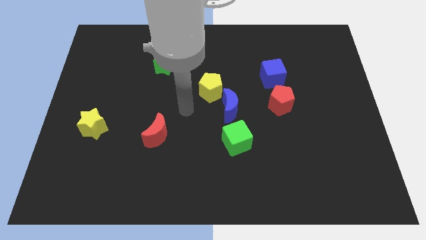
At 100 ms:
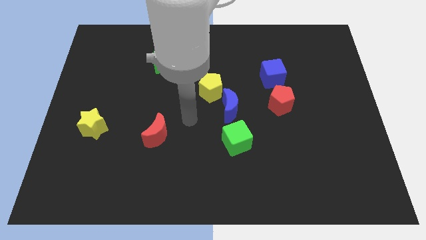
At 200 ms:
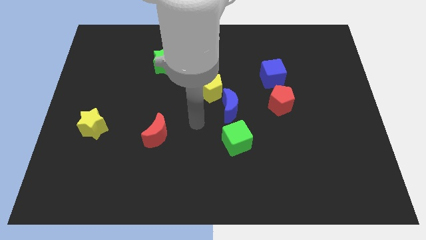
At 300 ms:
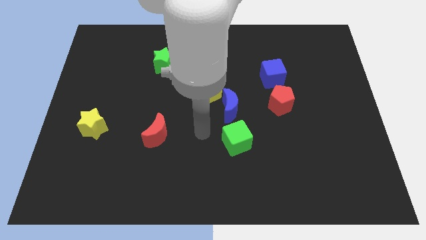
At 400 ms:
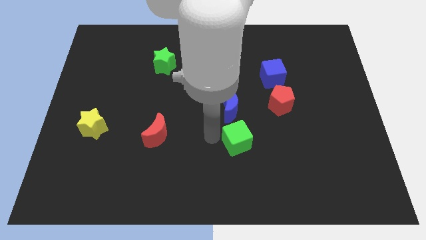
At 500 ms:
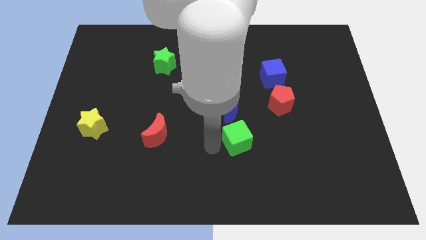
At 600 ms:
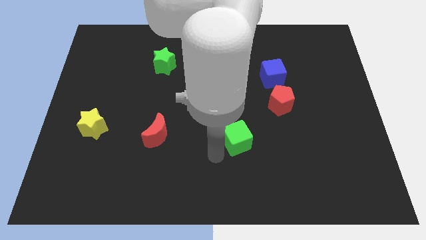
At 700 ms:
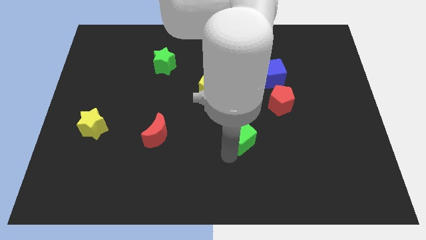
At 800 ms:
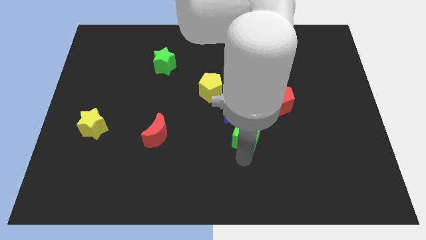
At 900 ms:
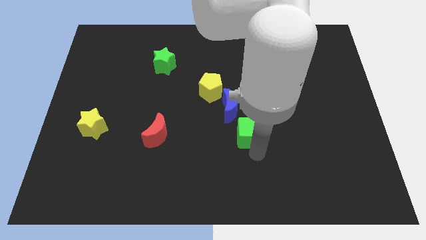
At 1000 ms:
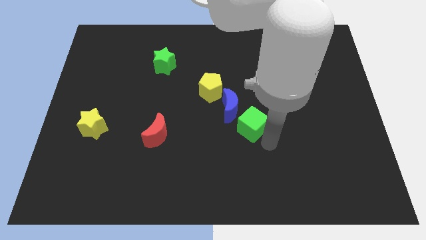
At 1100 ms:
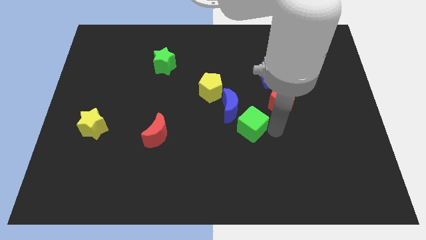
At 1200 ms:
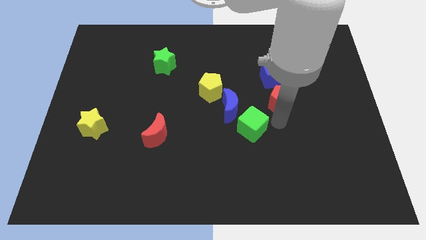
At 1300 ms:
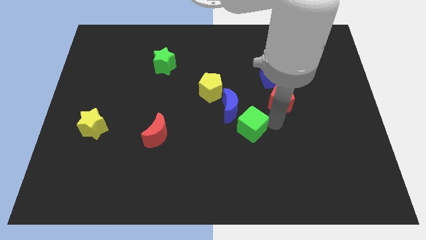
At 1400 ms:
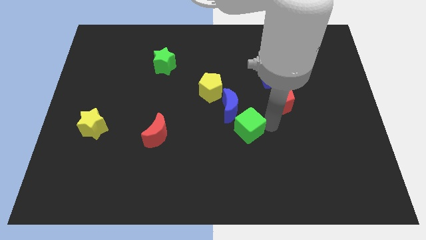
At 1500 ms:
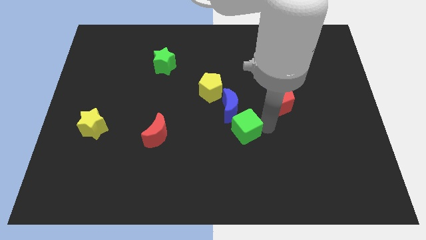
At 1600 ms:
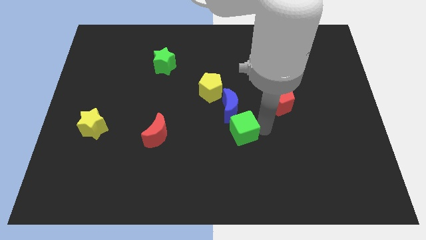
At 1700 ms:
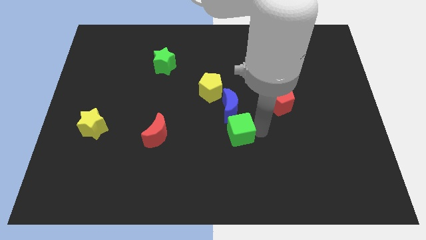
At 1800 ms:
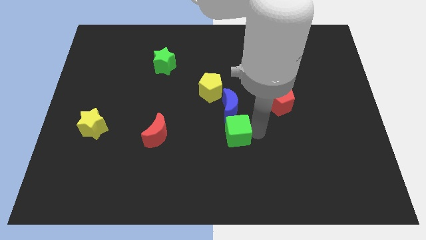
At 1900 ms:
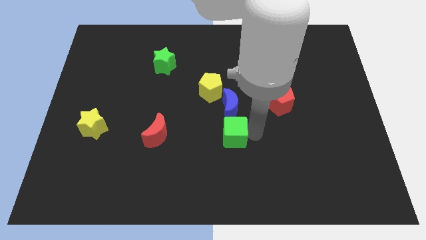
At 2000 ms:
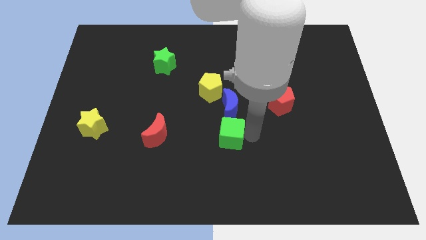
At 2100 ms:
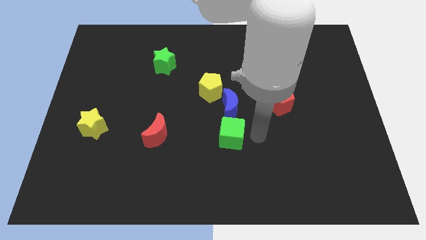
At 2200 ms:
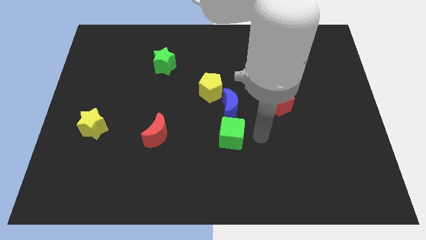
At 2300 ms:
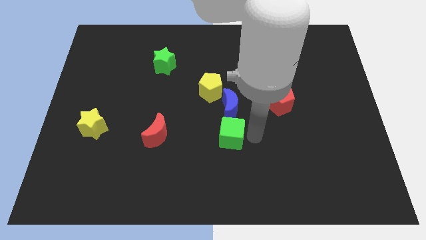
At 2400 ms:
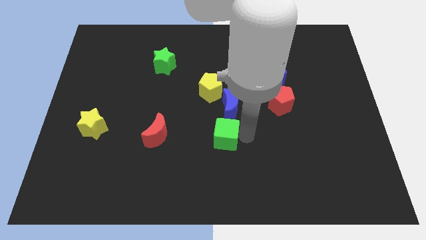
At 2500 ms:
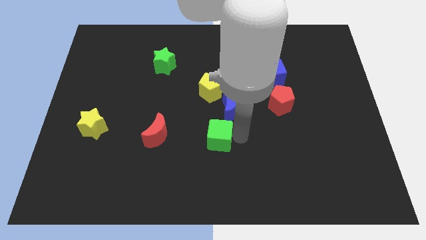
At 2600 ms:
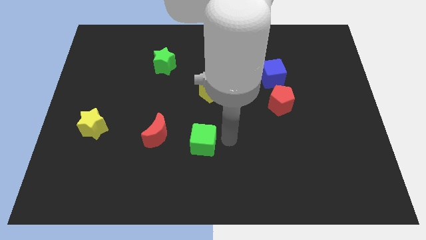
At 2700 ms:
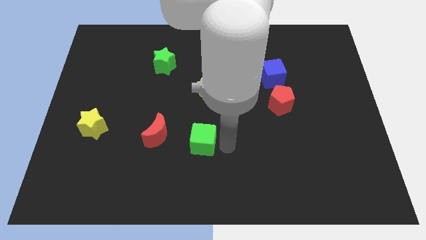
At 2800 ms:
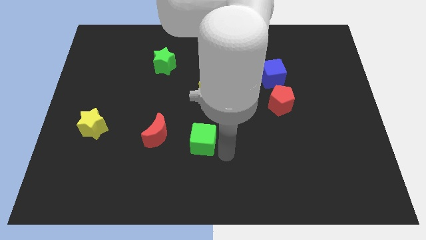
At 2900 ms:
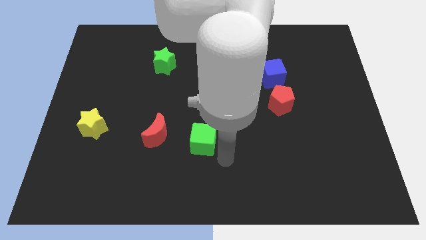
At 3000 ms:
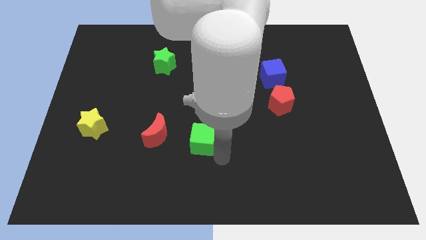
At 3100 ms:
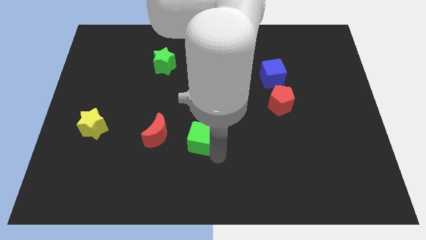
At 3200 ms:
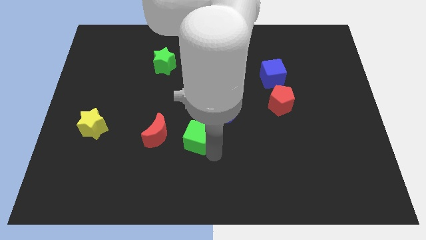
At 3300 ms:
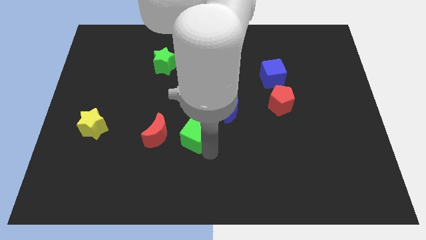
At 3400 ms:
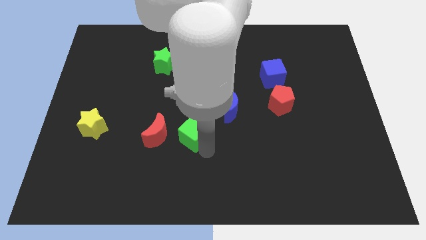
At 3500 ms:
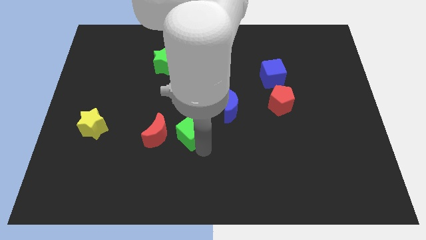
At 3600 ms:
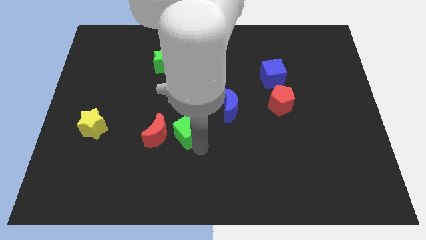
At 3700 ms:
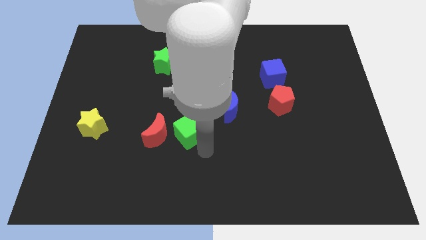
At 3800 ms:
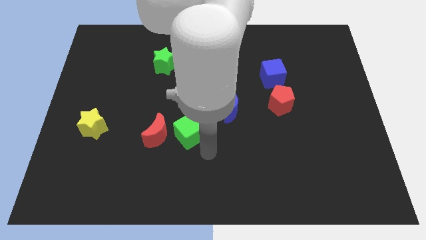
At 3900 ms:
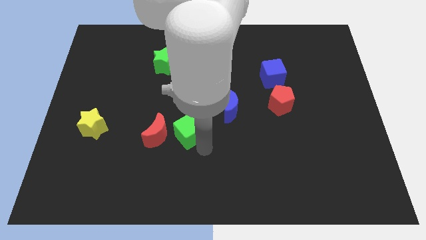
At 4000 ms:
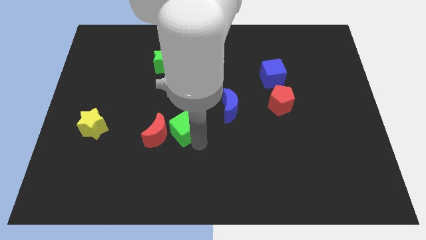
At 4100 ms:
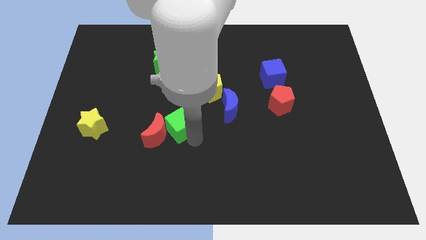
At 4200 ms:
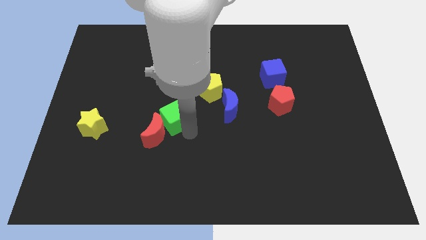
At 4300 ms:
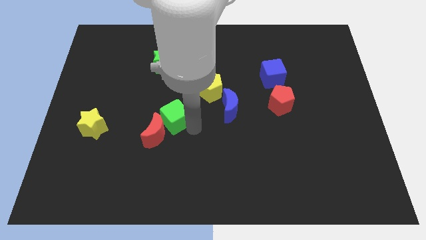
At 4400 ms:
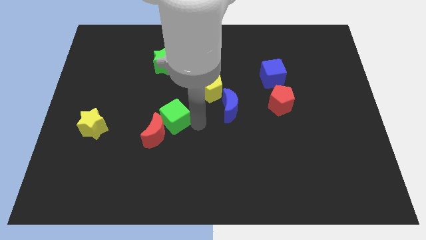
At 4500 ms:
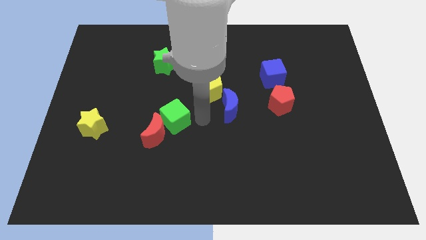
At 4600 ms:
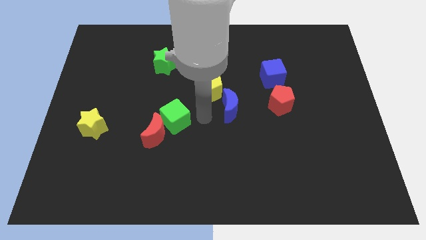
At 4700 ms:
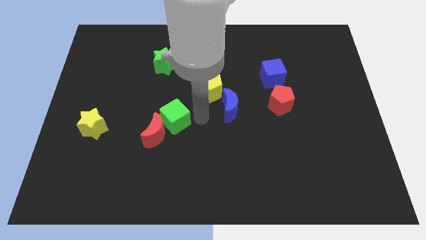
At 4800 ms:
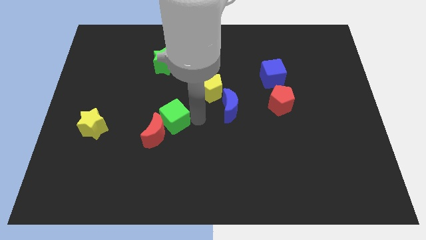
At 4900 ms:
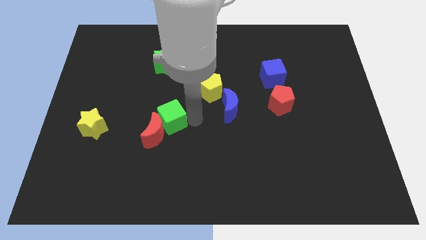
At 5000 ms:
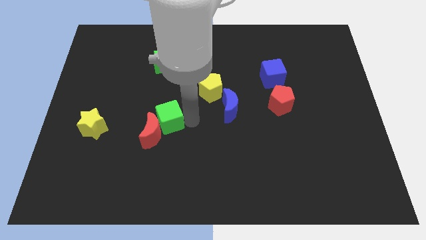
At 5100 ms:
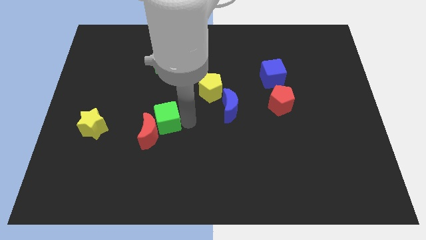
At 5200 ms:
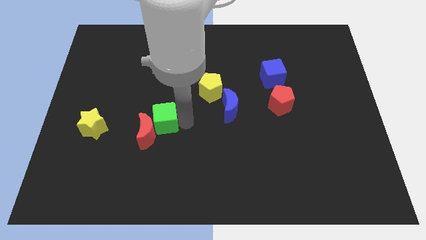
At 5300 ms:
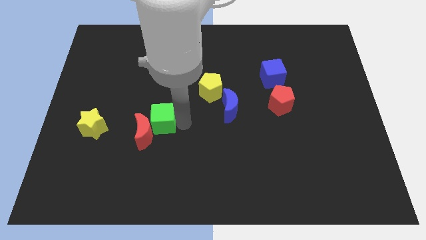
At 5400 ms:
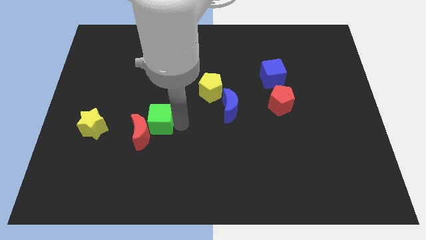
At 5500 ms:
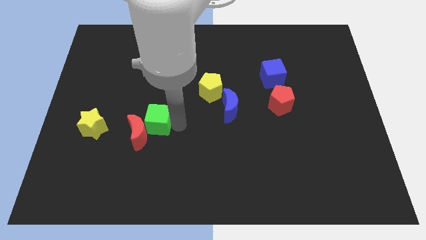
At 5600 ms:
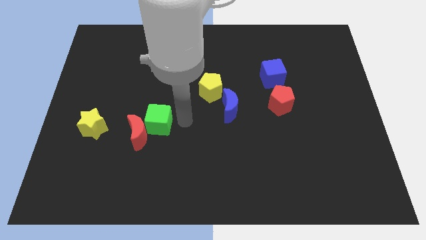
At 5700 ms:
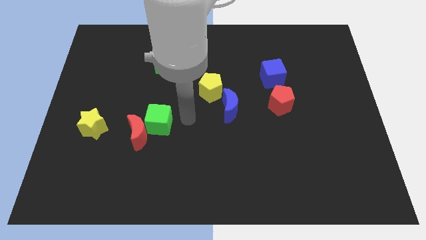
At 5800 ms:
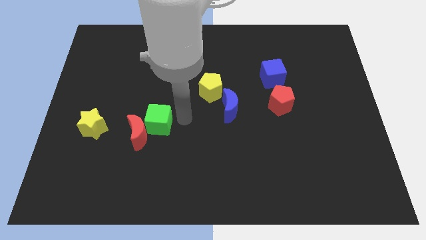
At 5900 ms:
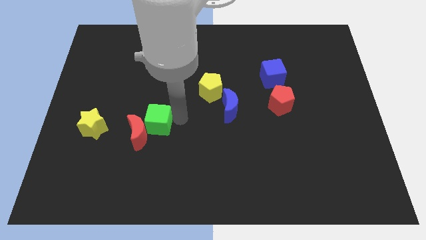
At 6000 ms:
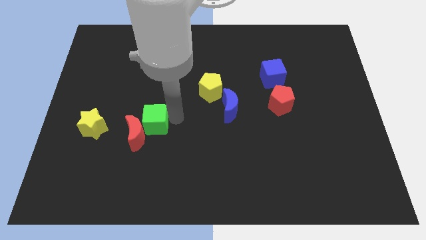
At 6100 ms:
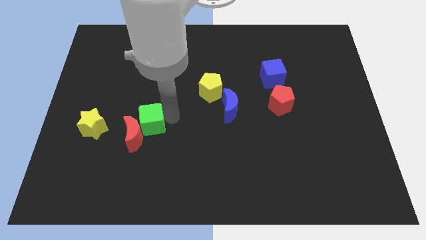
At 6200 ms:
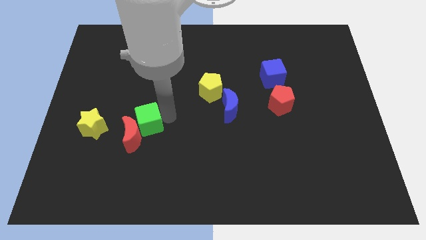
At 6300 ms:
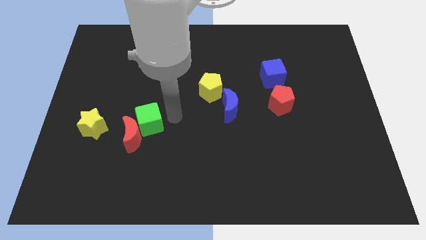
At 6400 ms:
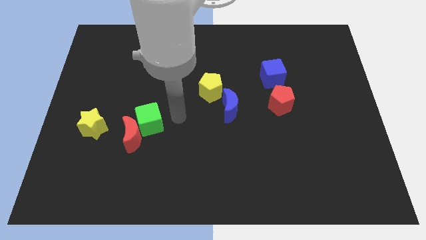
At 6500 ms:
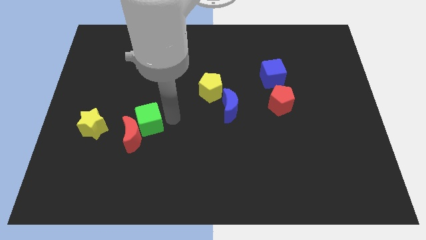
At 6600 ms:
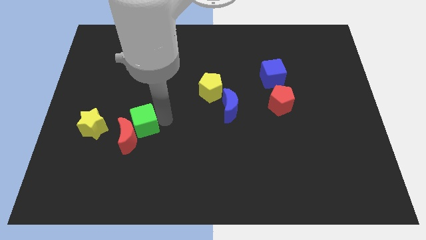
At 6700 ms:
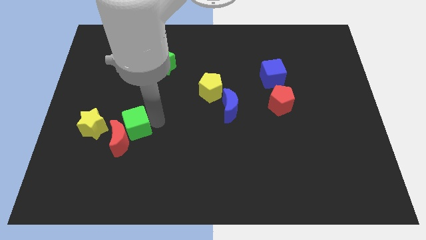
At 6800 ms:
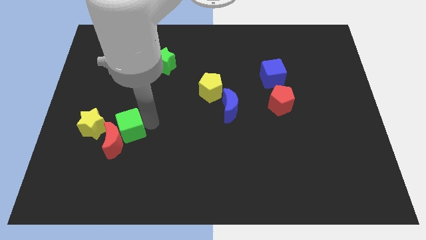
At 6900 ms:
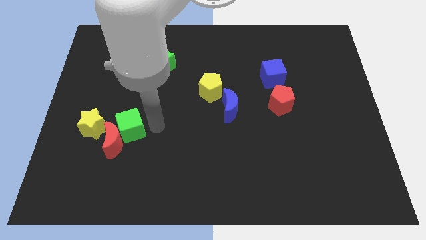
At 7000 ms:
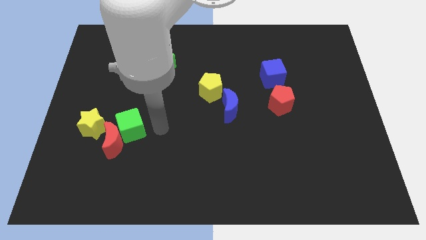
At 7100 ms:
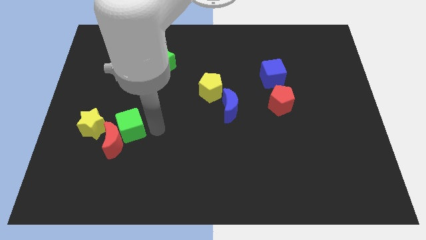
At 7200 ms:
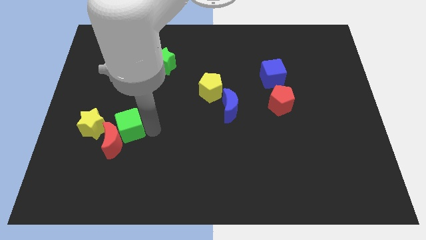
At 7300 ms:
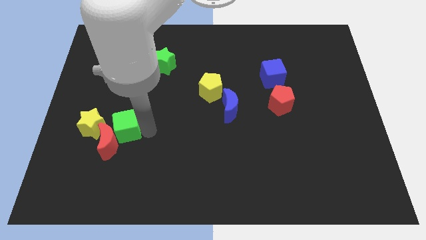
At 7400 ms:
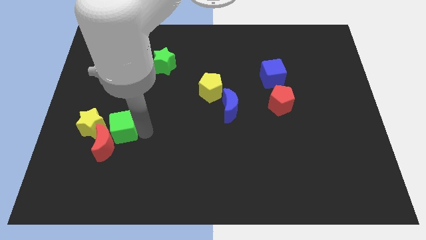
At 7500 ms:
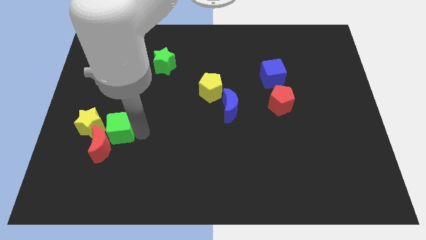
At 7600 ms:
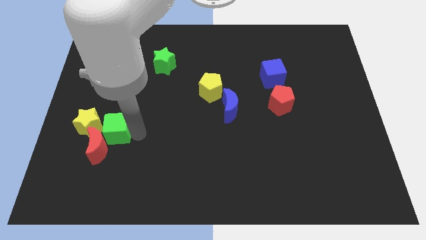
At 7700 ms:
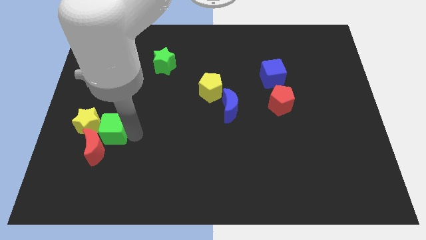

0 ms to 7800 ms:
push the green cube next to the yellow star
